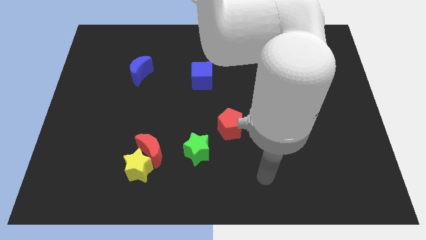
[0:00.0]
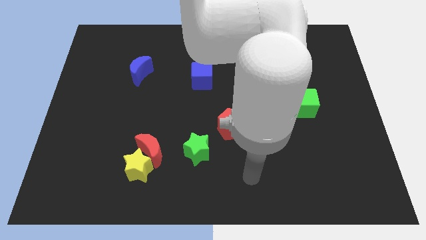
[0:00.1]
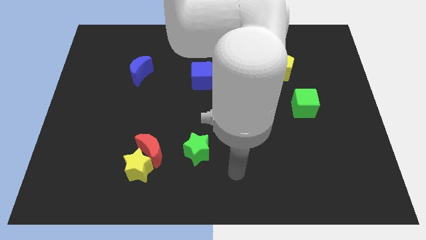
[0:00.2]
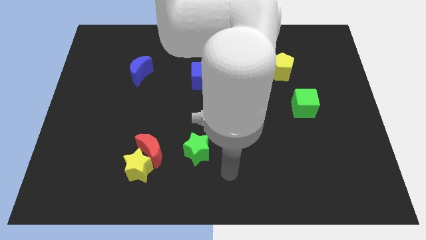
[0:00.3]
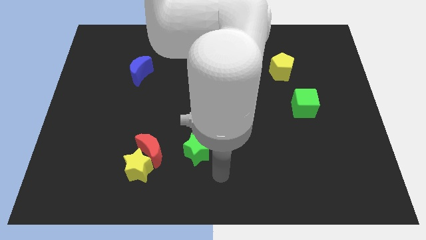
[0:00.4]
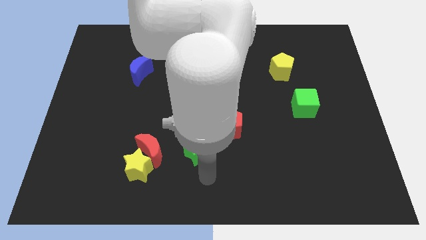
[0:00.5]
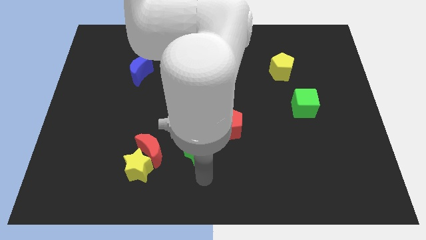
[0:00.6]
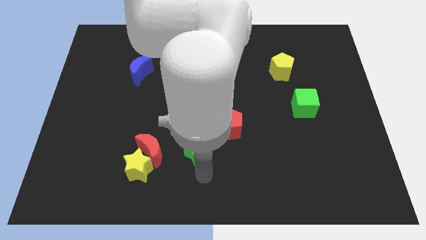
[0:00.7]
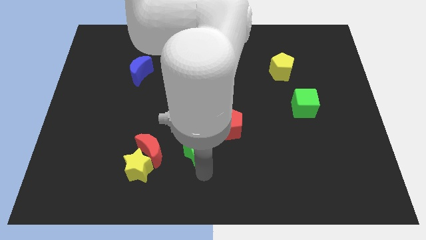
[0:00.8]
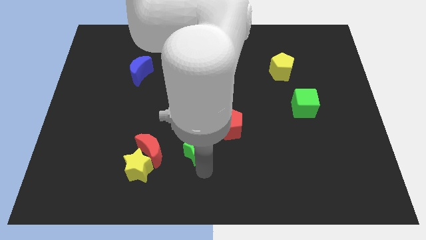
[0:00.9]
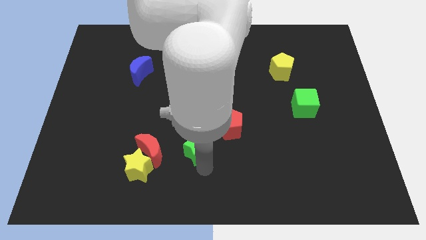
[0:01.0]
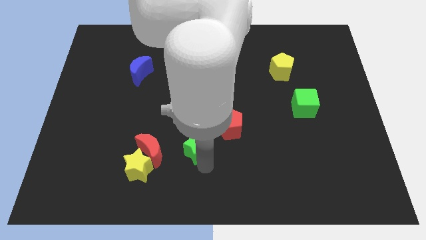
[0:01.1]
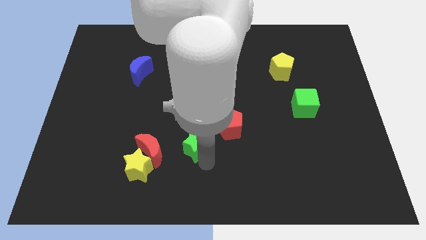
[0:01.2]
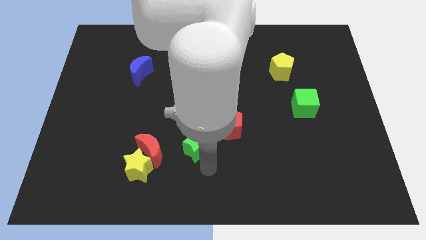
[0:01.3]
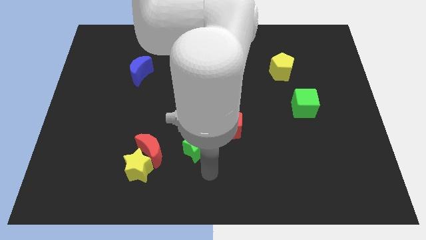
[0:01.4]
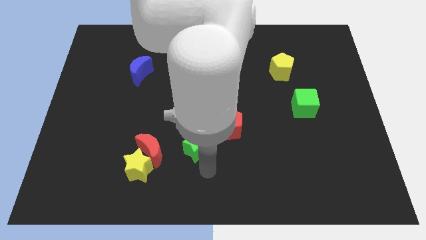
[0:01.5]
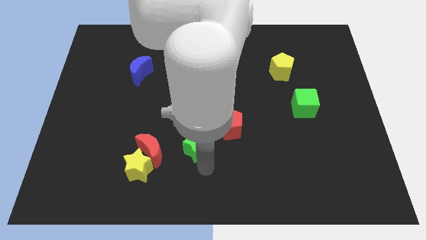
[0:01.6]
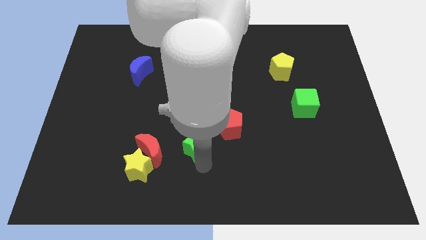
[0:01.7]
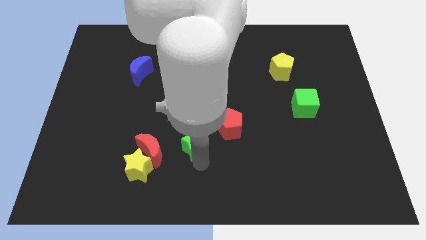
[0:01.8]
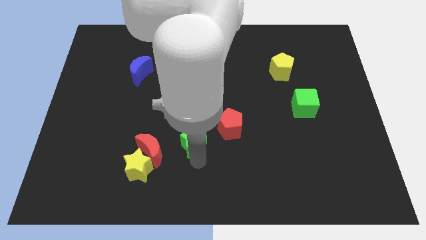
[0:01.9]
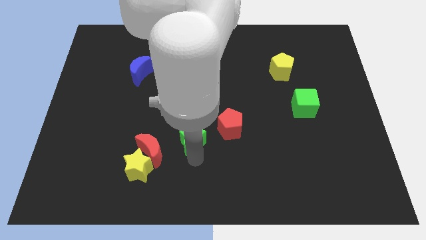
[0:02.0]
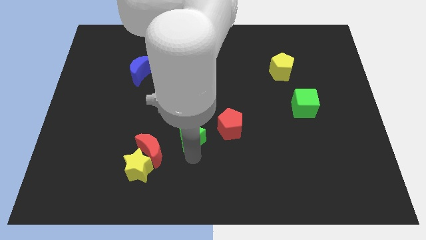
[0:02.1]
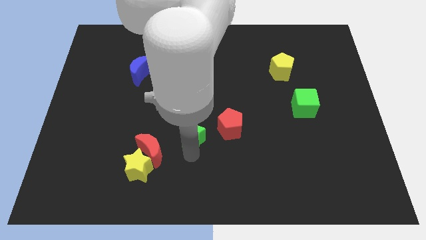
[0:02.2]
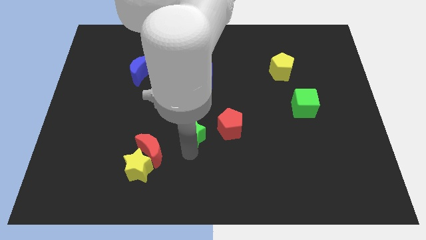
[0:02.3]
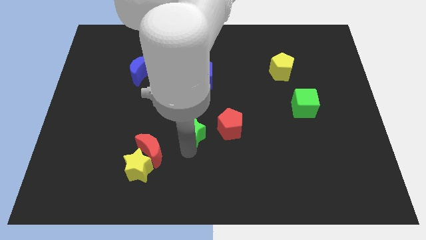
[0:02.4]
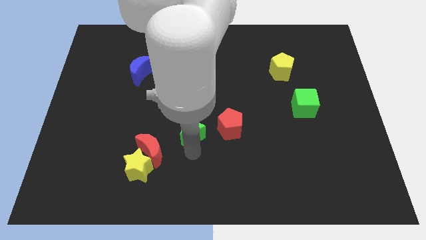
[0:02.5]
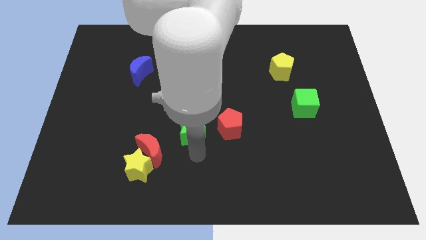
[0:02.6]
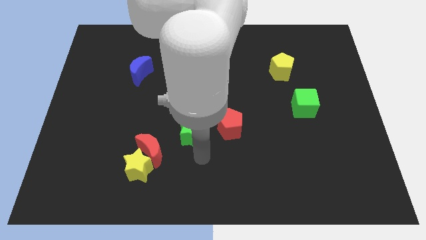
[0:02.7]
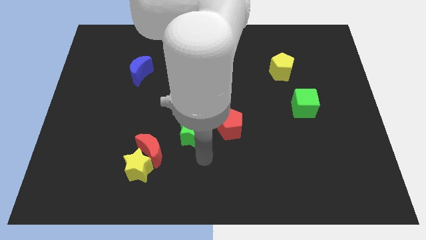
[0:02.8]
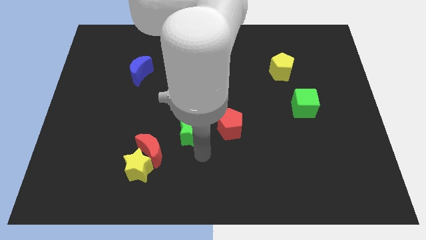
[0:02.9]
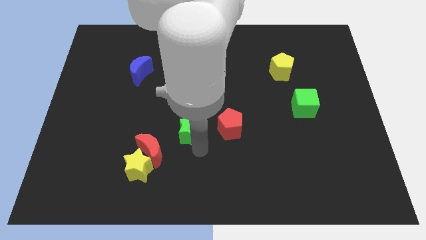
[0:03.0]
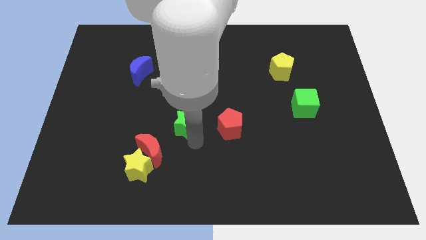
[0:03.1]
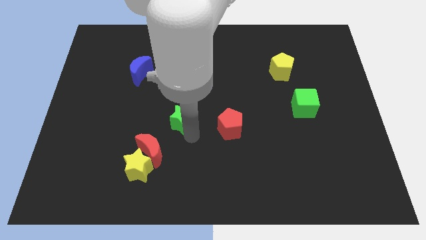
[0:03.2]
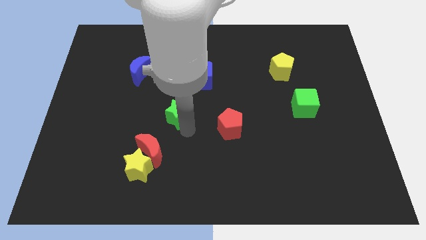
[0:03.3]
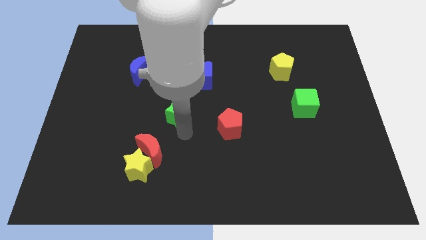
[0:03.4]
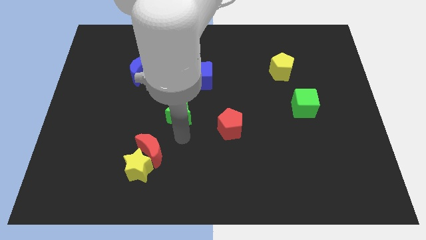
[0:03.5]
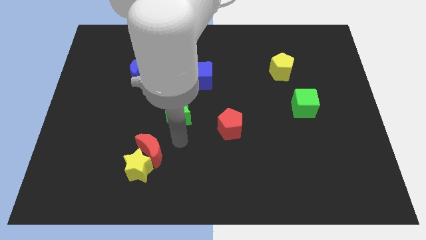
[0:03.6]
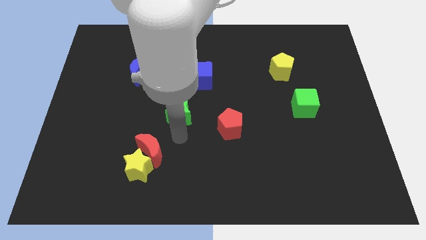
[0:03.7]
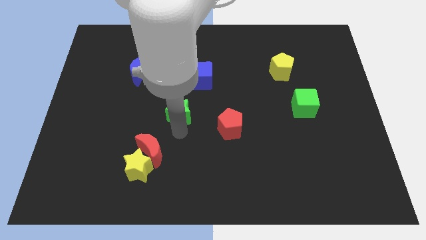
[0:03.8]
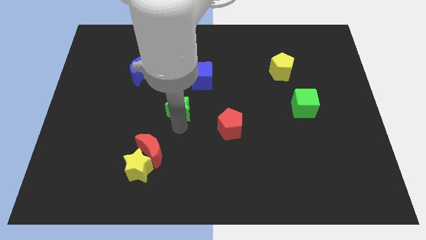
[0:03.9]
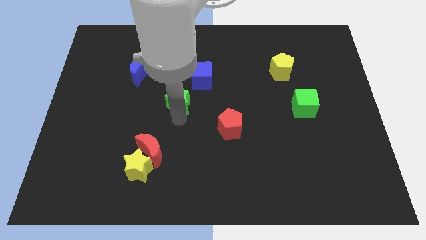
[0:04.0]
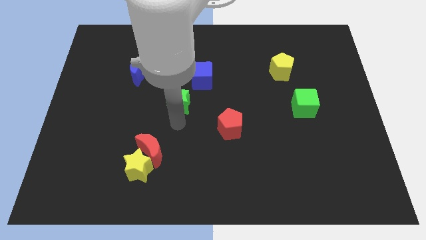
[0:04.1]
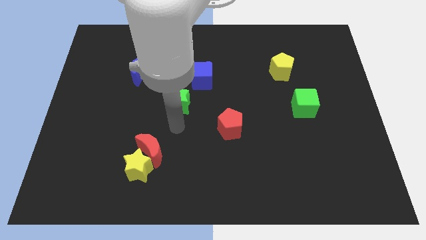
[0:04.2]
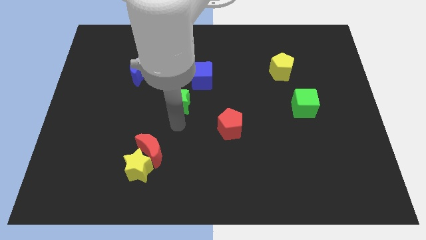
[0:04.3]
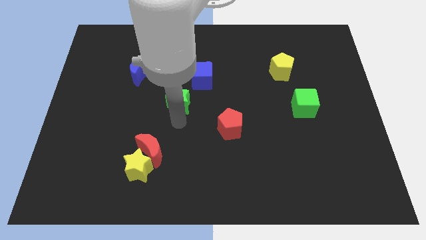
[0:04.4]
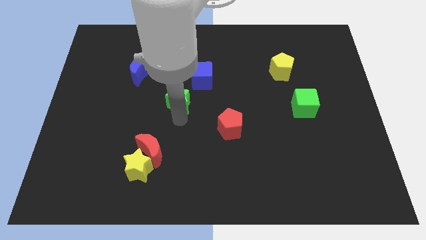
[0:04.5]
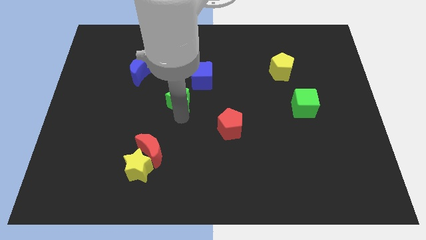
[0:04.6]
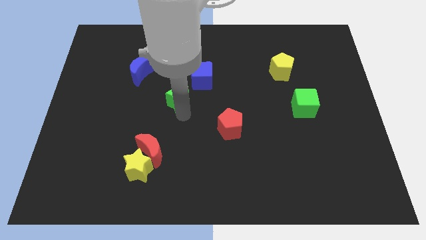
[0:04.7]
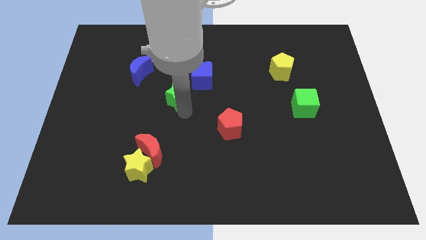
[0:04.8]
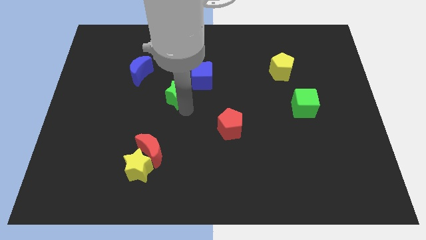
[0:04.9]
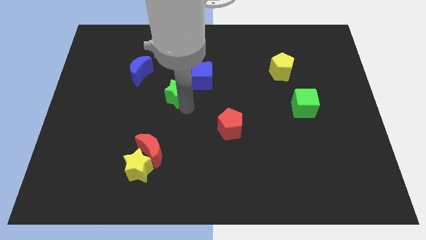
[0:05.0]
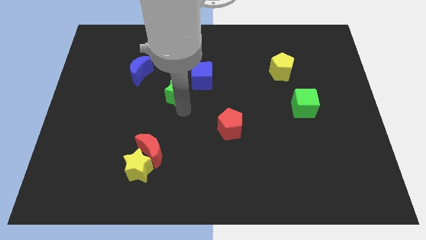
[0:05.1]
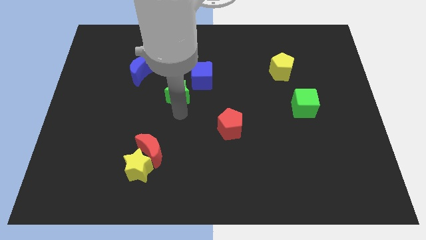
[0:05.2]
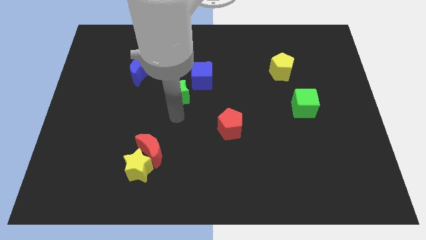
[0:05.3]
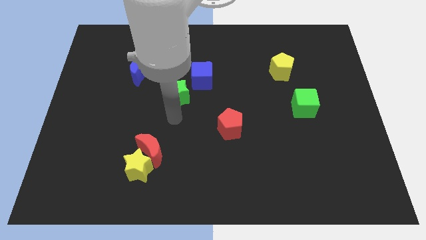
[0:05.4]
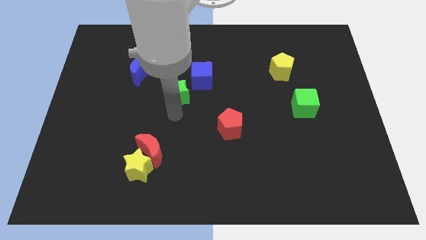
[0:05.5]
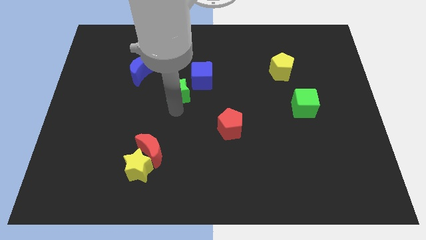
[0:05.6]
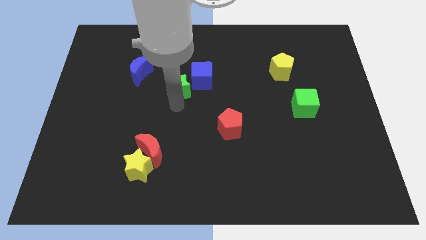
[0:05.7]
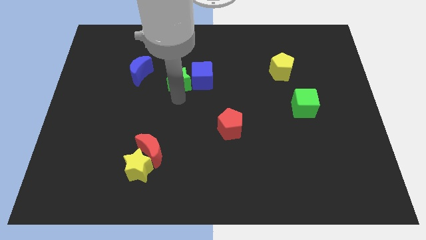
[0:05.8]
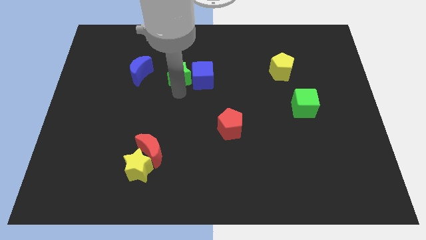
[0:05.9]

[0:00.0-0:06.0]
move the green star to the top left of the blue cube

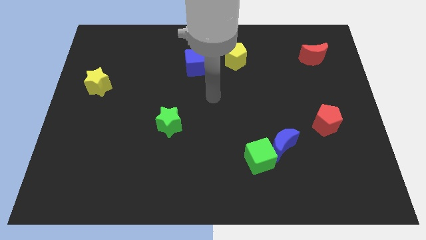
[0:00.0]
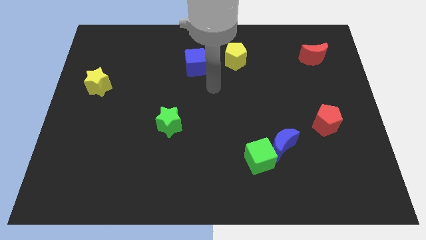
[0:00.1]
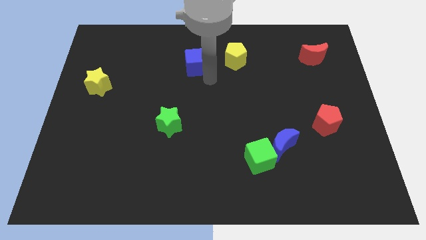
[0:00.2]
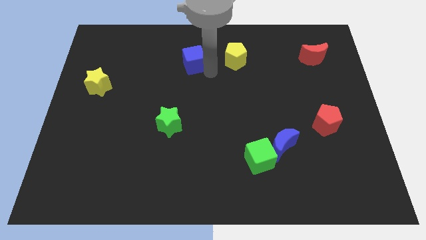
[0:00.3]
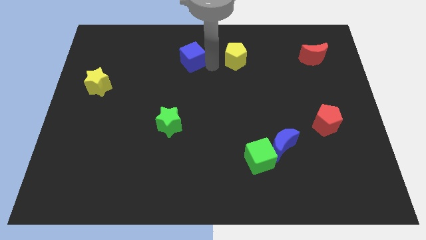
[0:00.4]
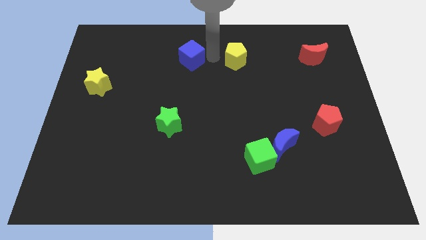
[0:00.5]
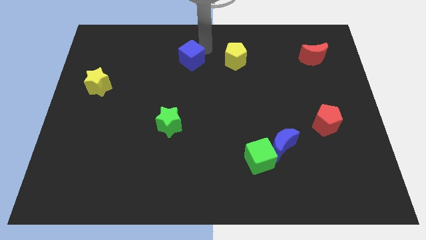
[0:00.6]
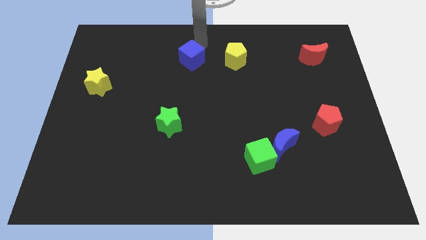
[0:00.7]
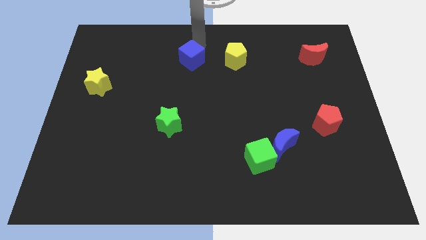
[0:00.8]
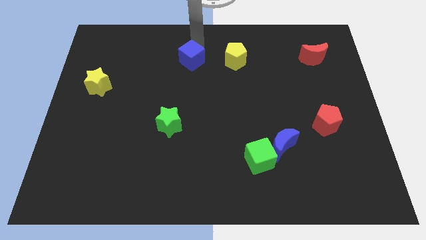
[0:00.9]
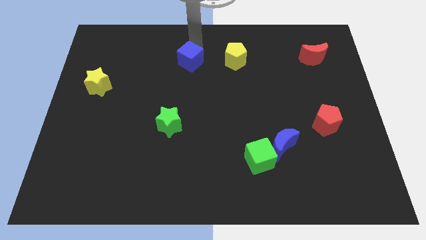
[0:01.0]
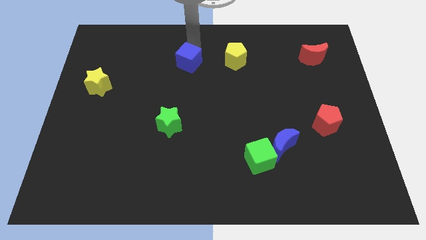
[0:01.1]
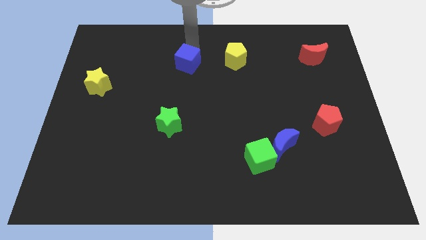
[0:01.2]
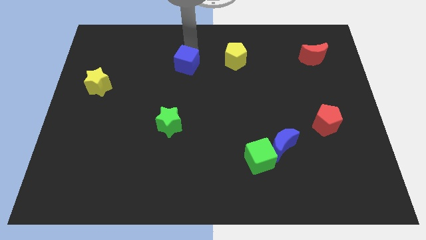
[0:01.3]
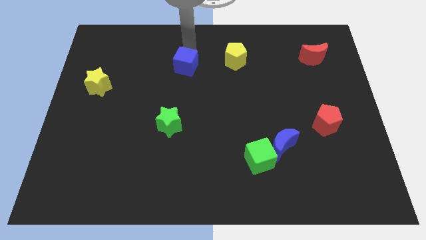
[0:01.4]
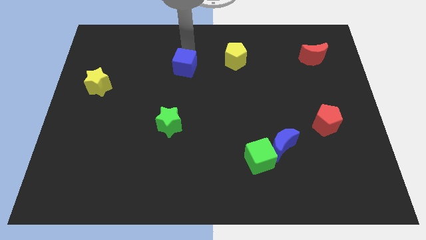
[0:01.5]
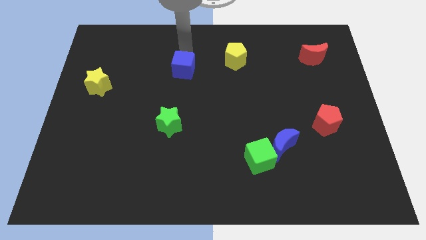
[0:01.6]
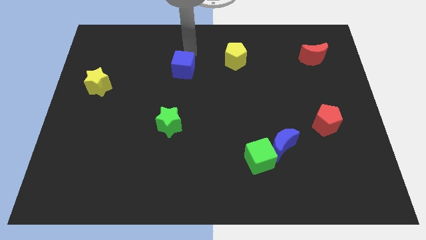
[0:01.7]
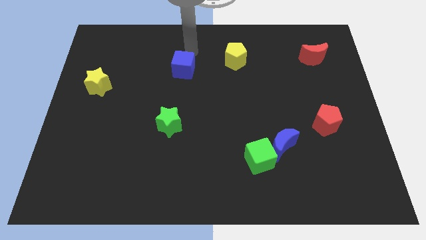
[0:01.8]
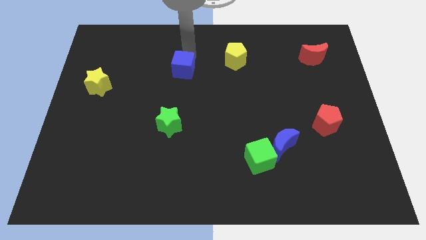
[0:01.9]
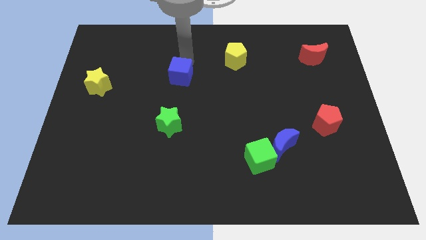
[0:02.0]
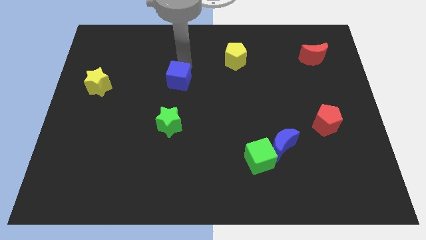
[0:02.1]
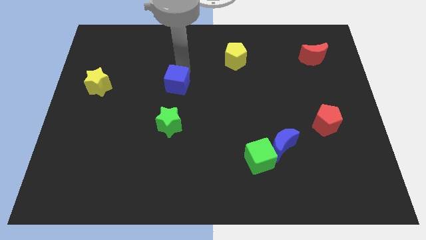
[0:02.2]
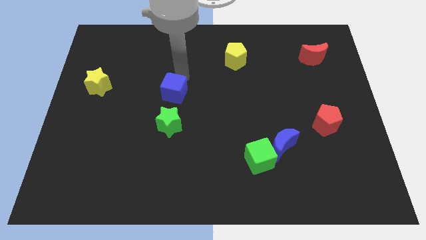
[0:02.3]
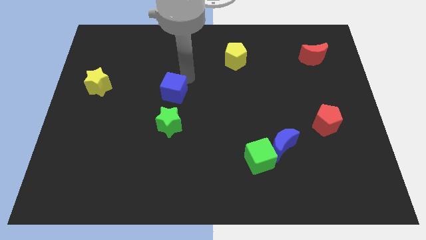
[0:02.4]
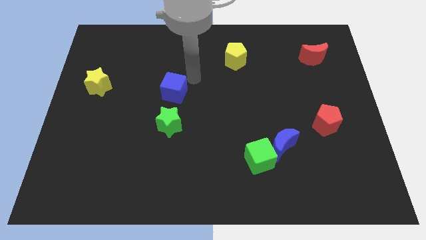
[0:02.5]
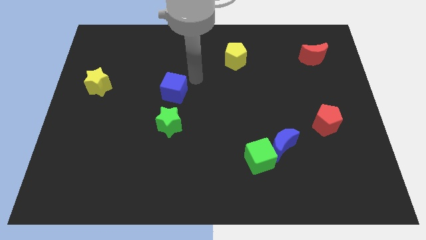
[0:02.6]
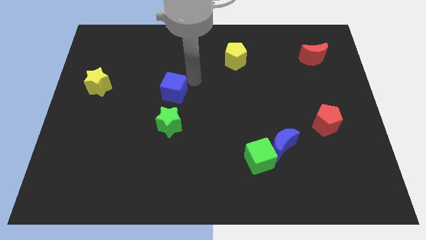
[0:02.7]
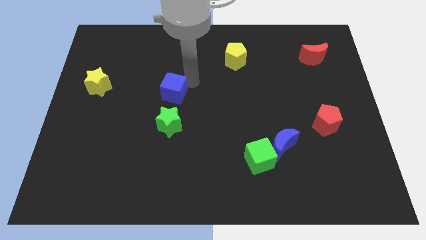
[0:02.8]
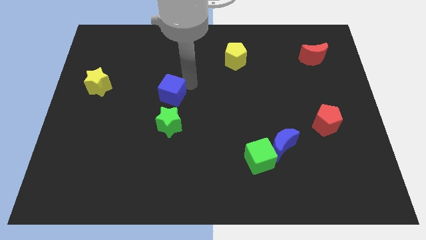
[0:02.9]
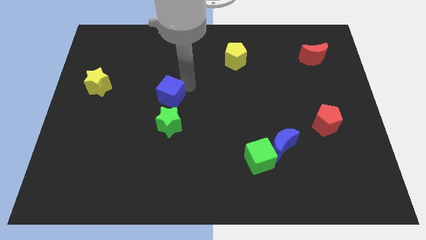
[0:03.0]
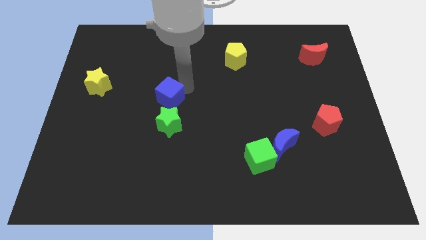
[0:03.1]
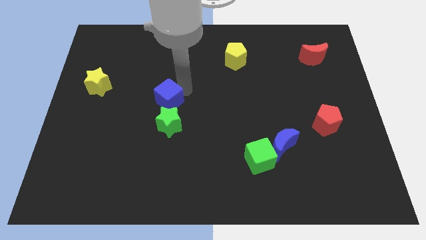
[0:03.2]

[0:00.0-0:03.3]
move the blue cube diagonally up and to the left of the green star
